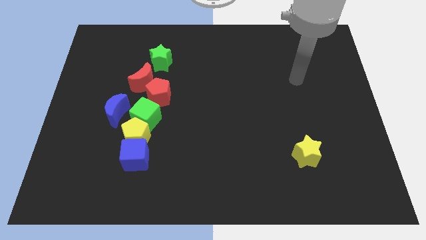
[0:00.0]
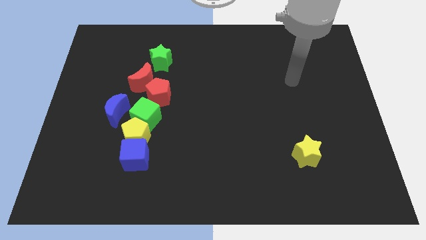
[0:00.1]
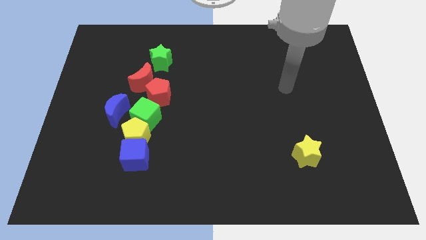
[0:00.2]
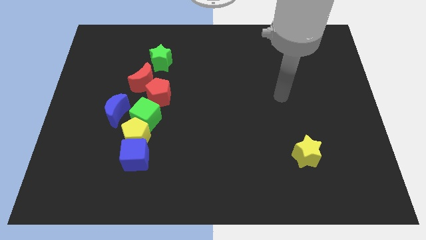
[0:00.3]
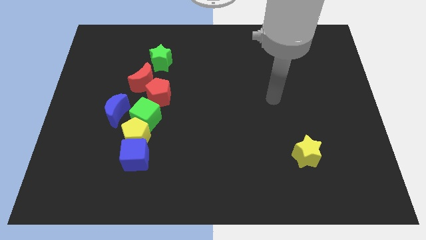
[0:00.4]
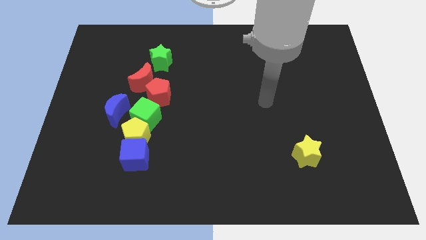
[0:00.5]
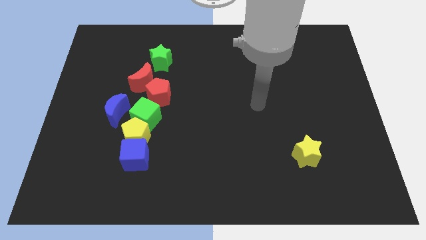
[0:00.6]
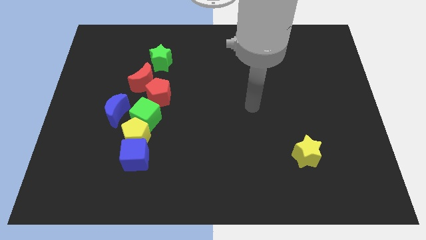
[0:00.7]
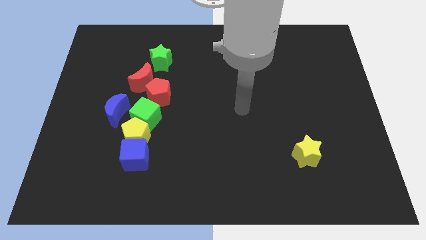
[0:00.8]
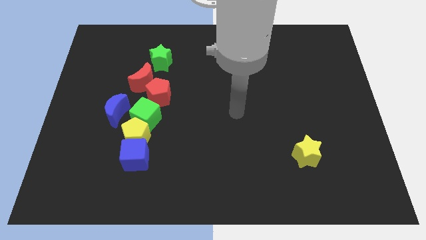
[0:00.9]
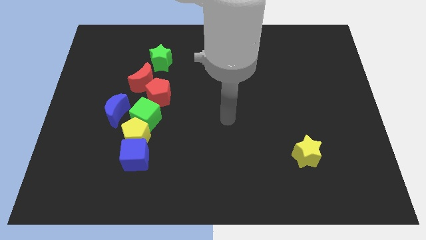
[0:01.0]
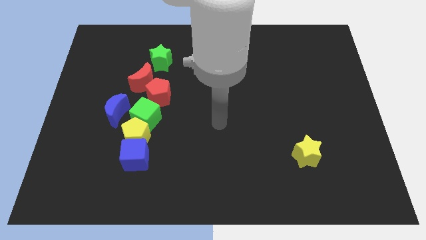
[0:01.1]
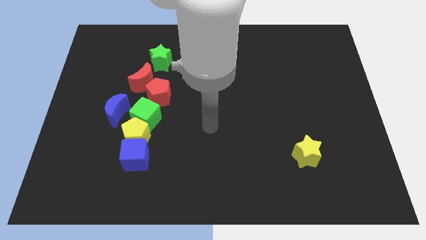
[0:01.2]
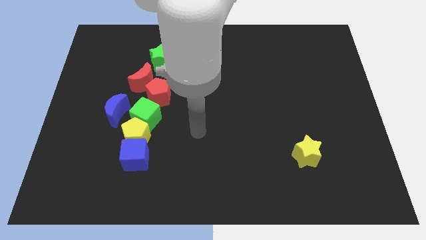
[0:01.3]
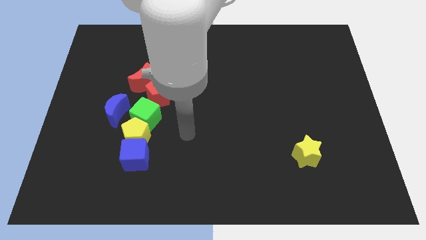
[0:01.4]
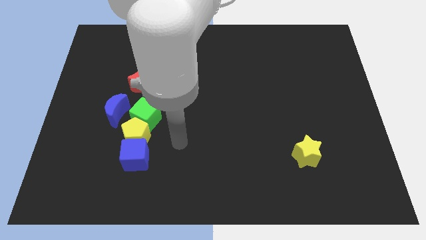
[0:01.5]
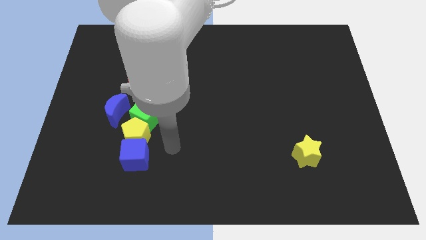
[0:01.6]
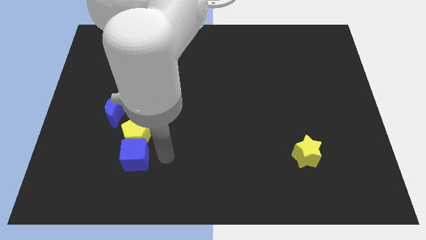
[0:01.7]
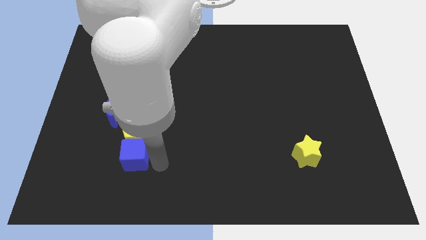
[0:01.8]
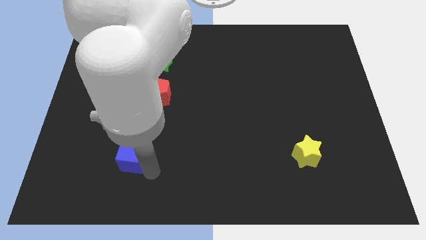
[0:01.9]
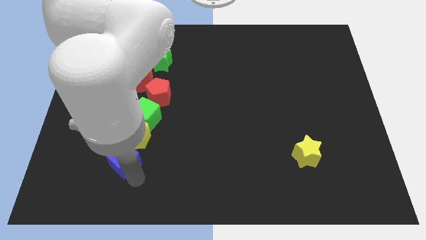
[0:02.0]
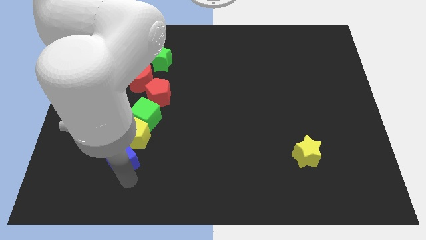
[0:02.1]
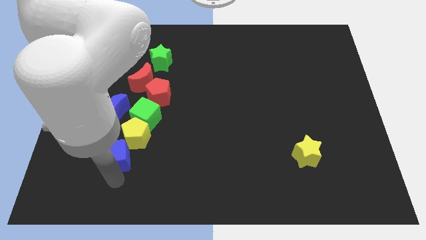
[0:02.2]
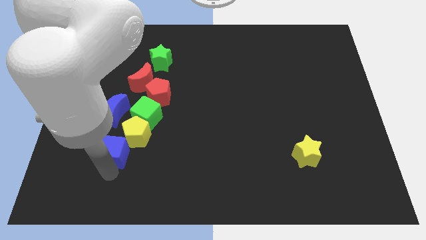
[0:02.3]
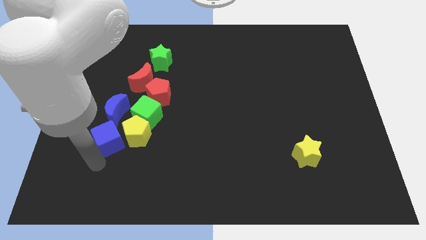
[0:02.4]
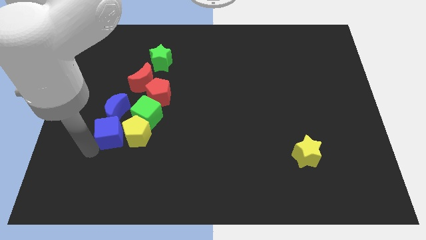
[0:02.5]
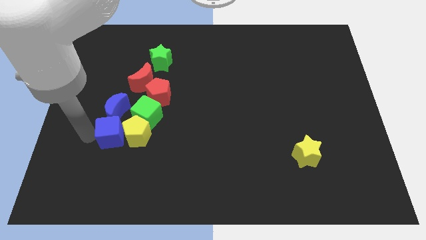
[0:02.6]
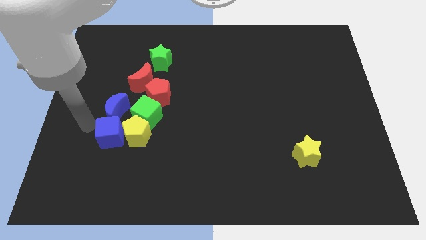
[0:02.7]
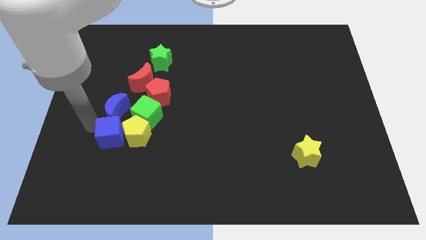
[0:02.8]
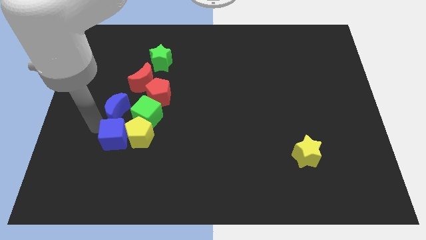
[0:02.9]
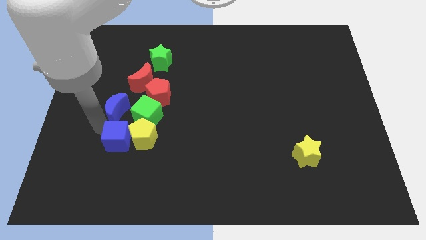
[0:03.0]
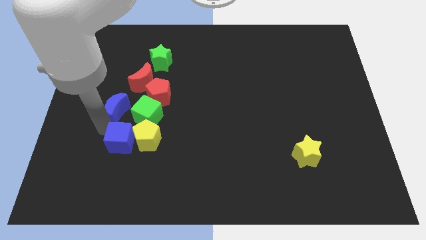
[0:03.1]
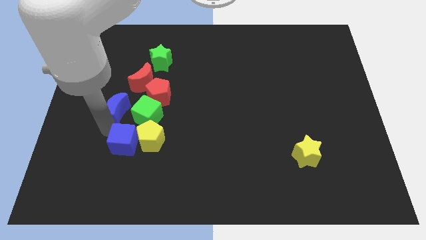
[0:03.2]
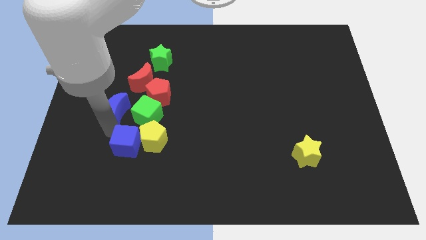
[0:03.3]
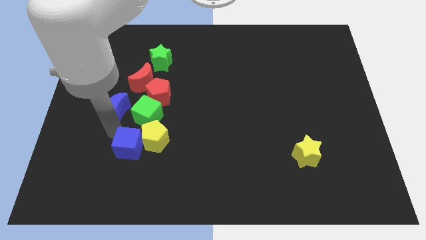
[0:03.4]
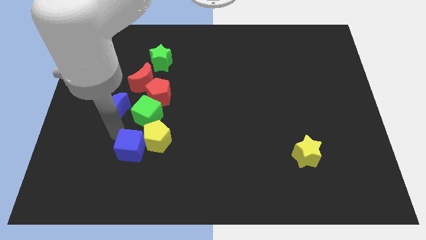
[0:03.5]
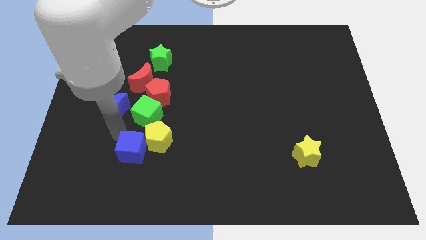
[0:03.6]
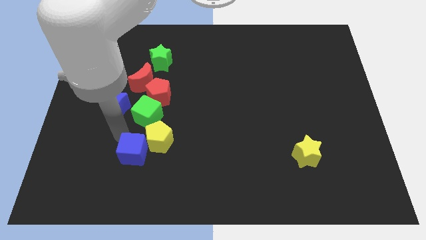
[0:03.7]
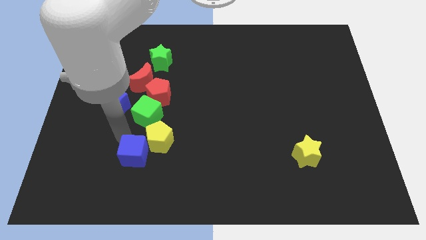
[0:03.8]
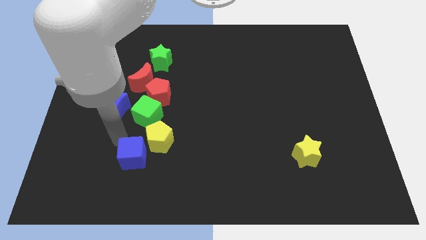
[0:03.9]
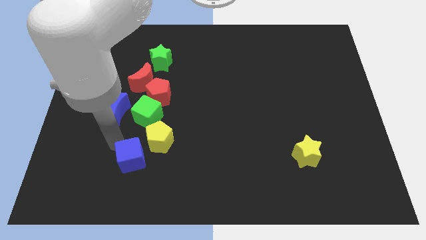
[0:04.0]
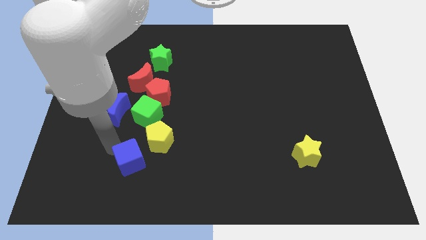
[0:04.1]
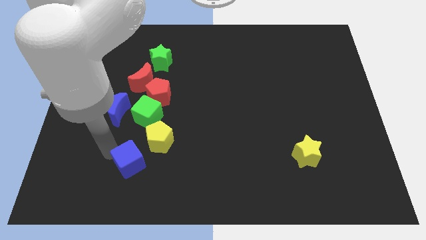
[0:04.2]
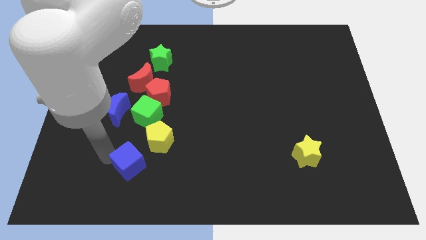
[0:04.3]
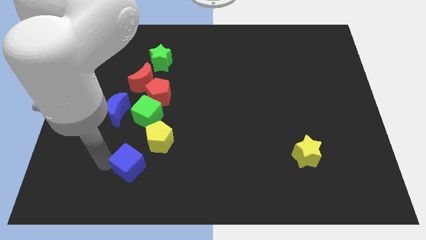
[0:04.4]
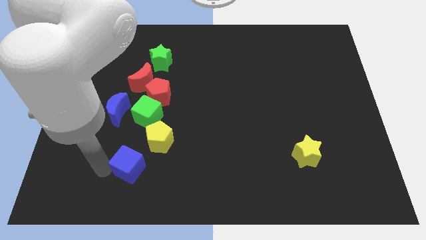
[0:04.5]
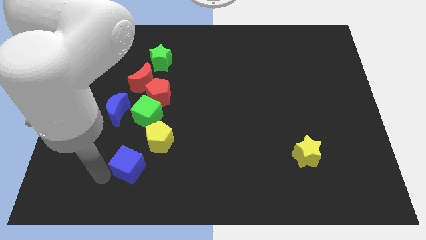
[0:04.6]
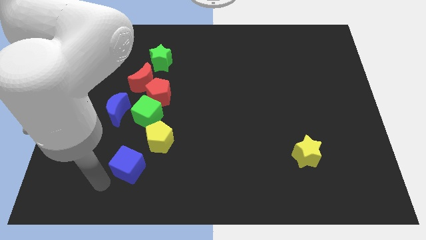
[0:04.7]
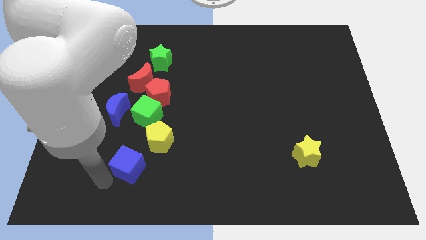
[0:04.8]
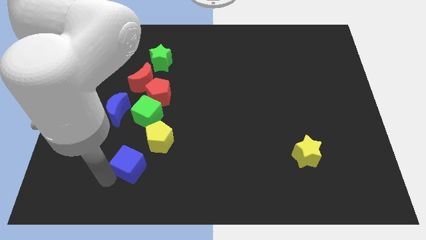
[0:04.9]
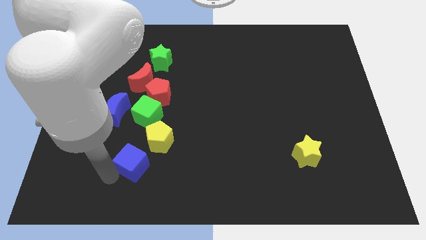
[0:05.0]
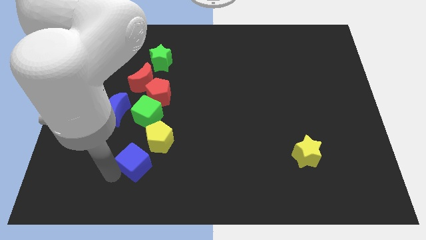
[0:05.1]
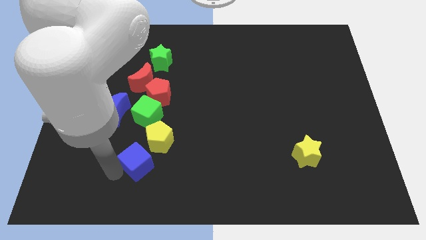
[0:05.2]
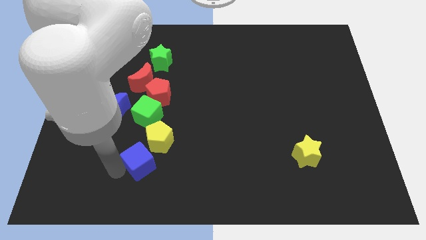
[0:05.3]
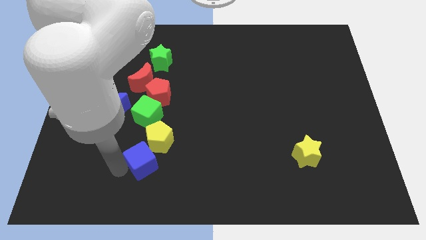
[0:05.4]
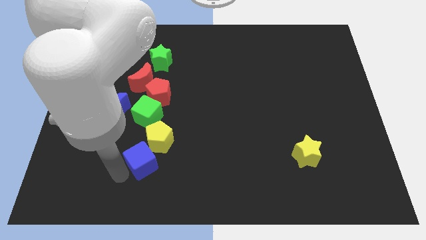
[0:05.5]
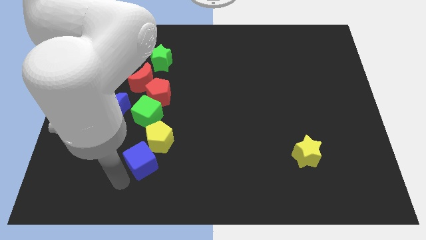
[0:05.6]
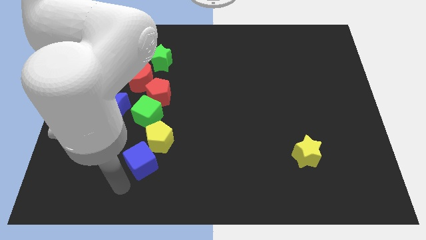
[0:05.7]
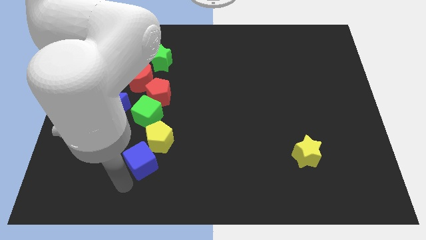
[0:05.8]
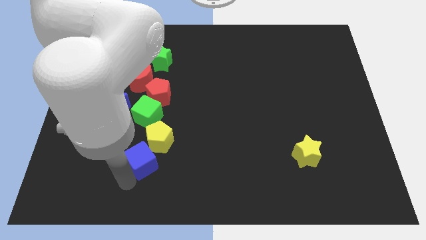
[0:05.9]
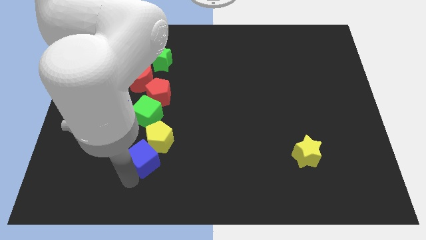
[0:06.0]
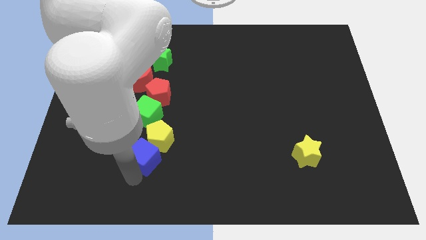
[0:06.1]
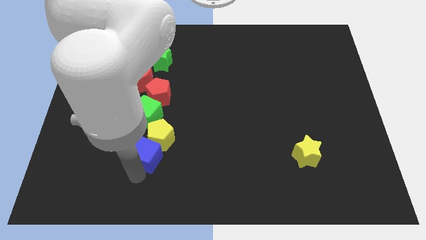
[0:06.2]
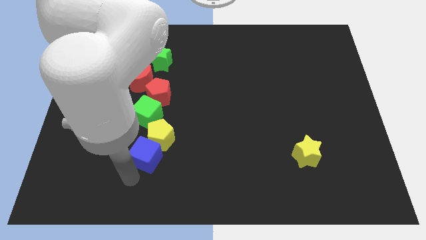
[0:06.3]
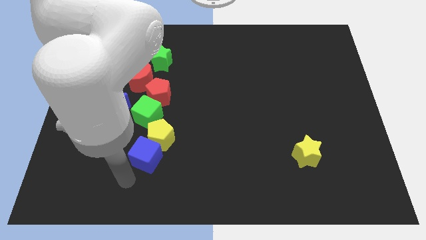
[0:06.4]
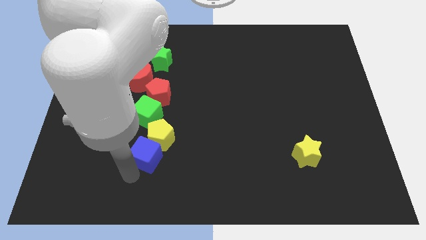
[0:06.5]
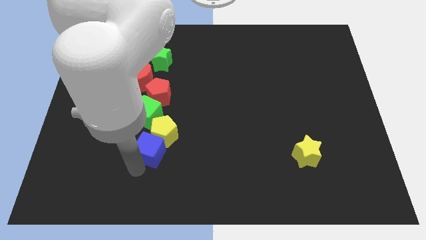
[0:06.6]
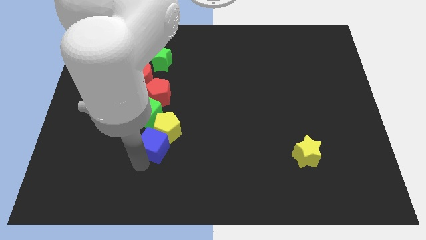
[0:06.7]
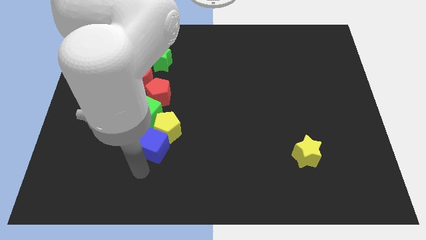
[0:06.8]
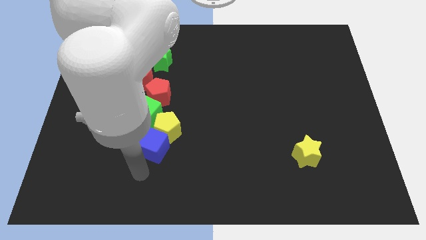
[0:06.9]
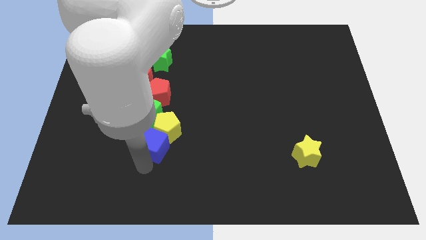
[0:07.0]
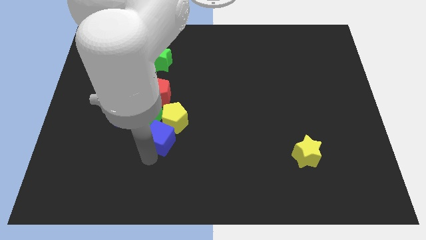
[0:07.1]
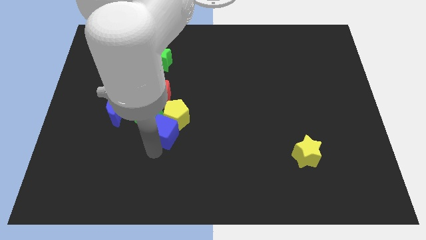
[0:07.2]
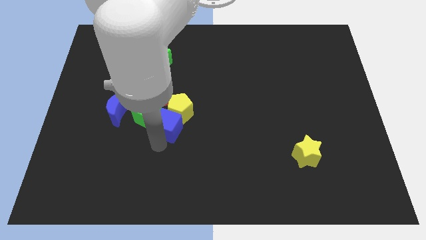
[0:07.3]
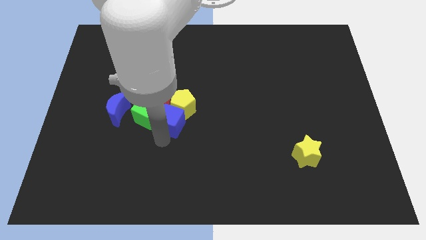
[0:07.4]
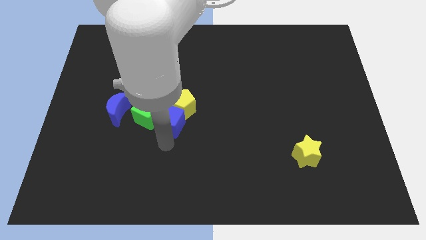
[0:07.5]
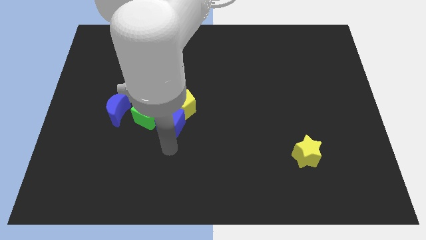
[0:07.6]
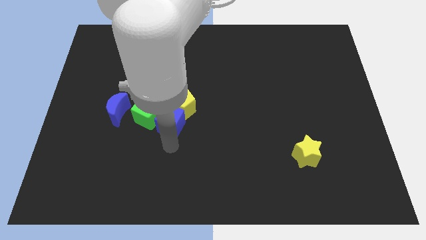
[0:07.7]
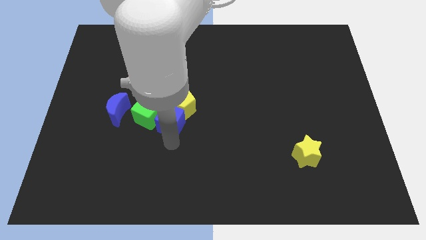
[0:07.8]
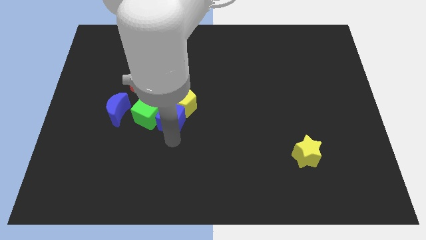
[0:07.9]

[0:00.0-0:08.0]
slide the blue cube diagonally up and to the right of the green cube
